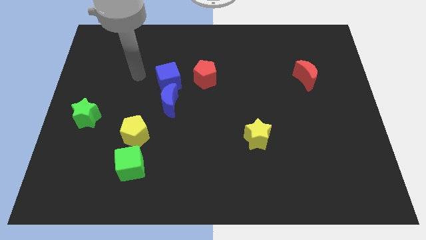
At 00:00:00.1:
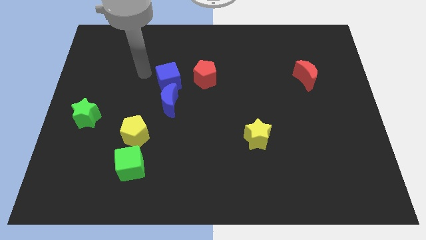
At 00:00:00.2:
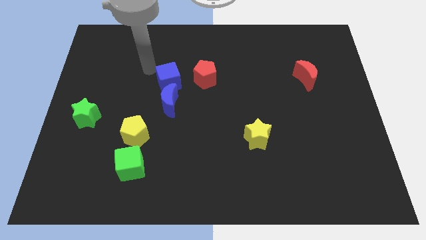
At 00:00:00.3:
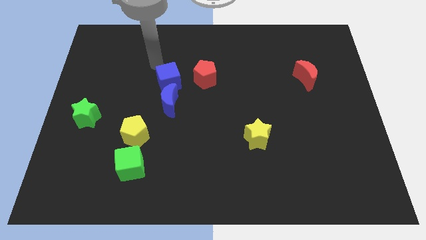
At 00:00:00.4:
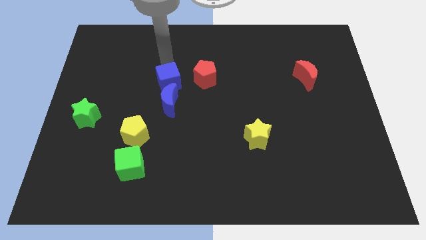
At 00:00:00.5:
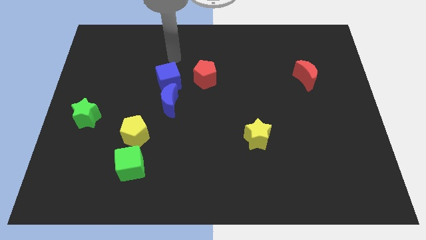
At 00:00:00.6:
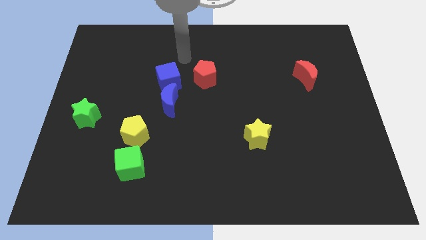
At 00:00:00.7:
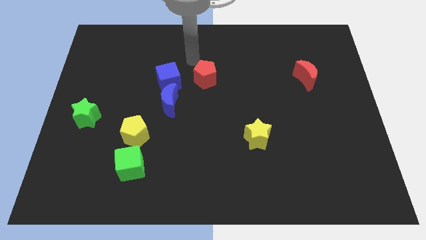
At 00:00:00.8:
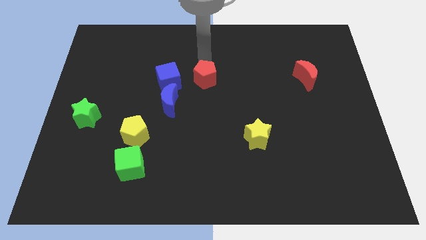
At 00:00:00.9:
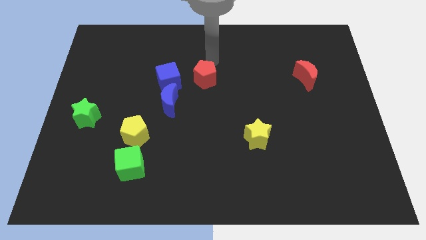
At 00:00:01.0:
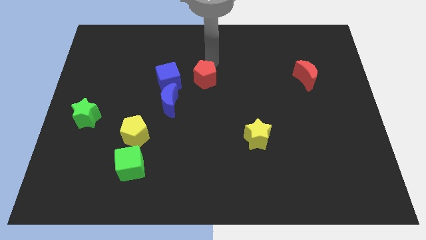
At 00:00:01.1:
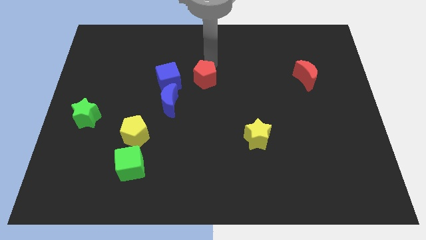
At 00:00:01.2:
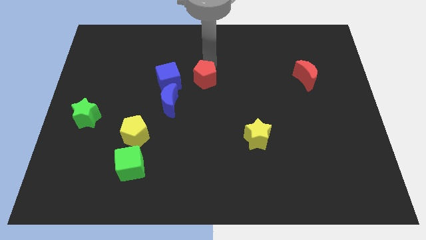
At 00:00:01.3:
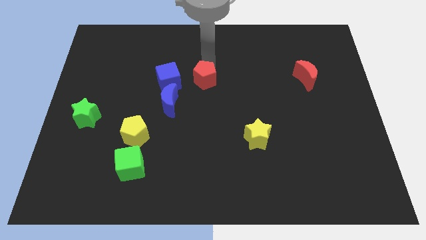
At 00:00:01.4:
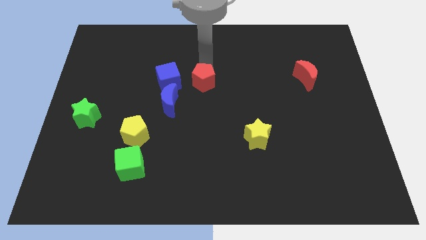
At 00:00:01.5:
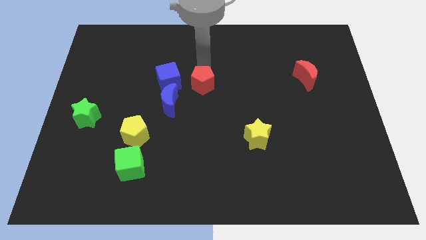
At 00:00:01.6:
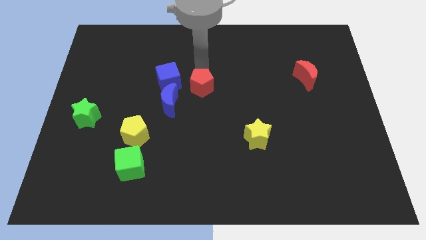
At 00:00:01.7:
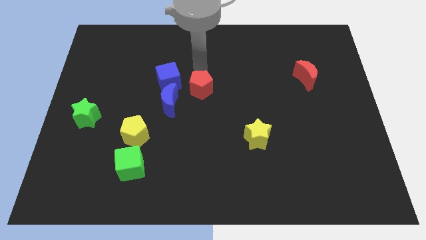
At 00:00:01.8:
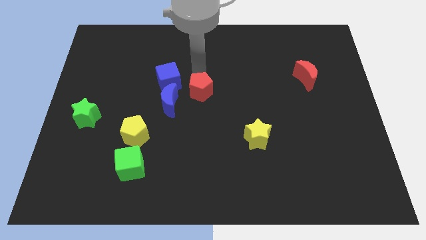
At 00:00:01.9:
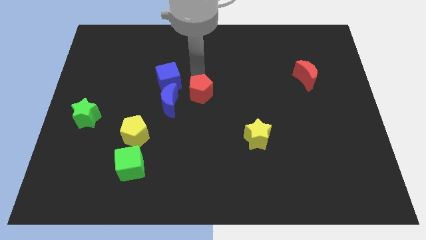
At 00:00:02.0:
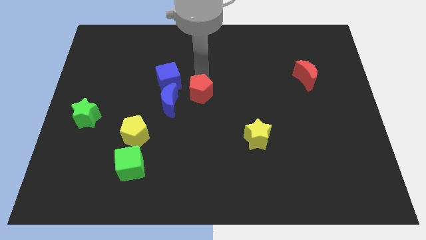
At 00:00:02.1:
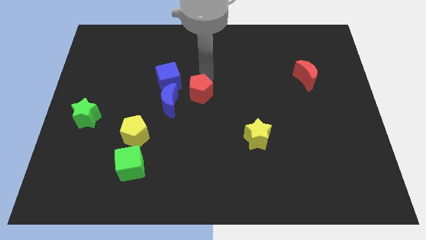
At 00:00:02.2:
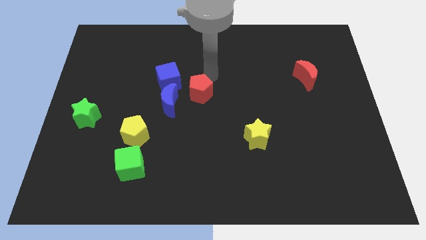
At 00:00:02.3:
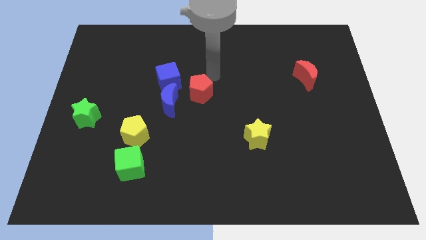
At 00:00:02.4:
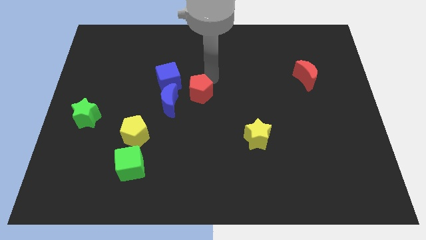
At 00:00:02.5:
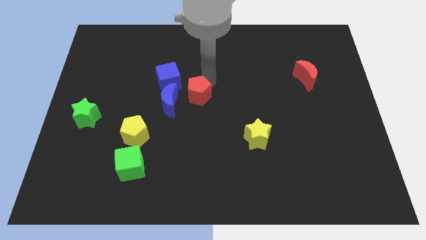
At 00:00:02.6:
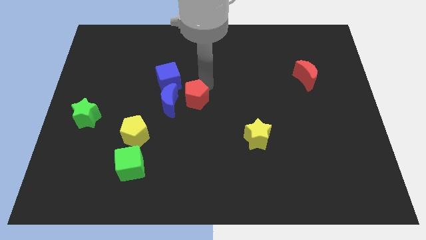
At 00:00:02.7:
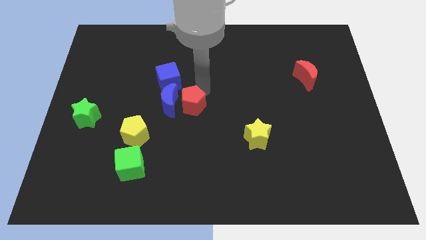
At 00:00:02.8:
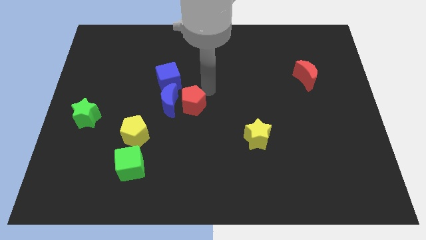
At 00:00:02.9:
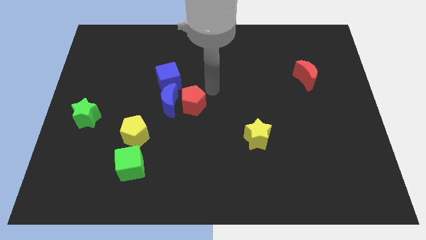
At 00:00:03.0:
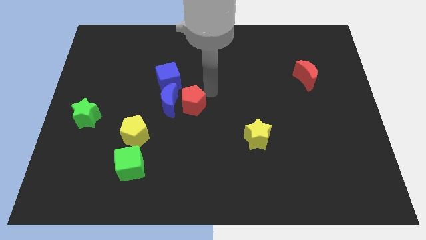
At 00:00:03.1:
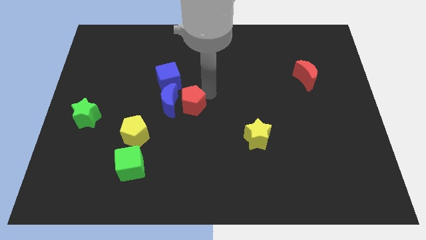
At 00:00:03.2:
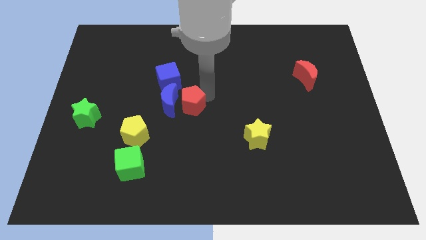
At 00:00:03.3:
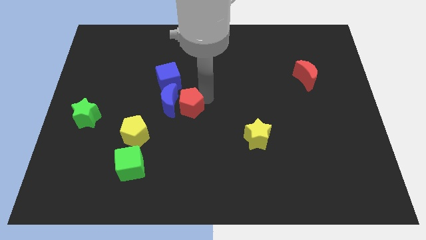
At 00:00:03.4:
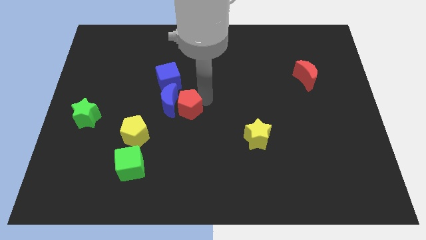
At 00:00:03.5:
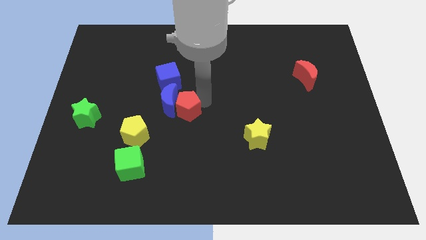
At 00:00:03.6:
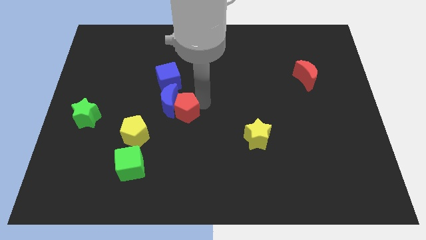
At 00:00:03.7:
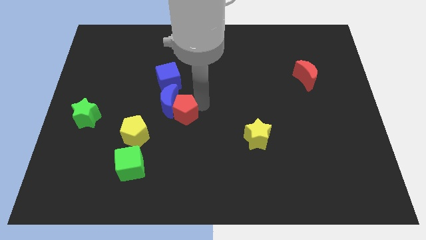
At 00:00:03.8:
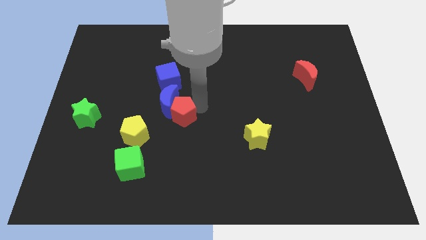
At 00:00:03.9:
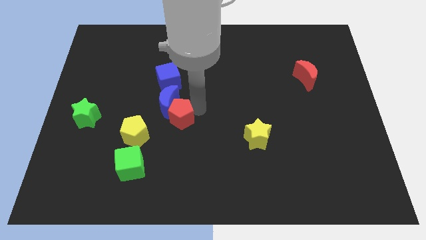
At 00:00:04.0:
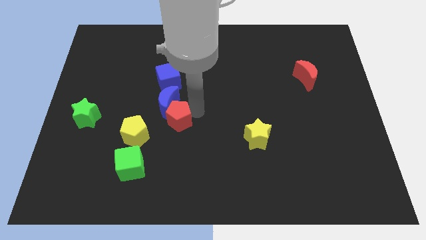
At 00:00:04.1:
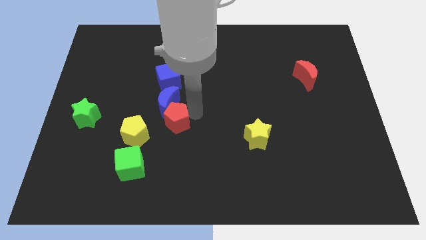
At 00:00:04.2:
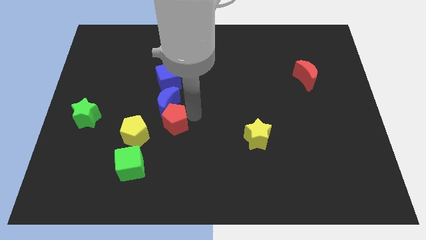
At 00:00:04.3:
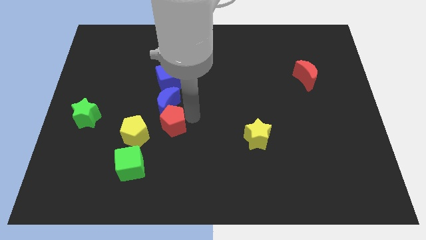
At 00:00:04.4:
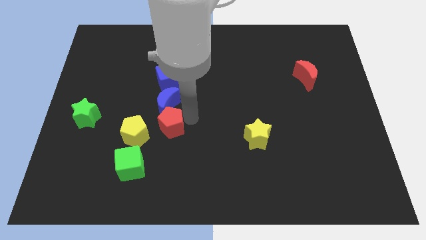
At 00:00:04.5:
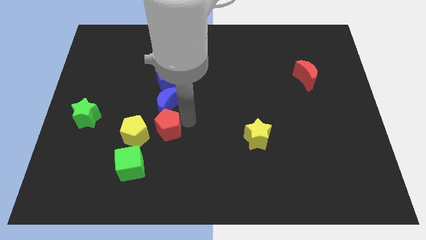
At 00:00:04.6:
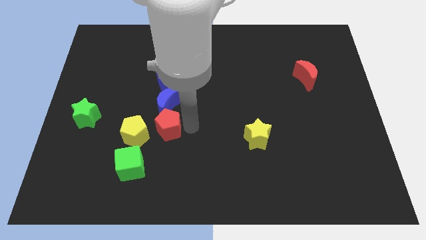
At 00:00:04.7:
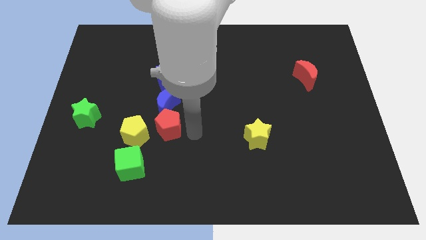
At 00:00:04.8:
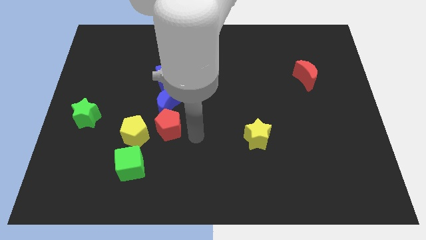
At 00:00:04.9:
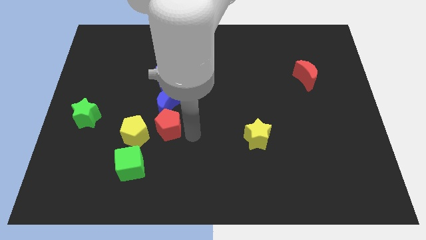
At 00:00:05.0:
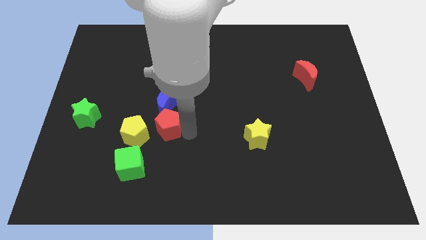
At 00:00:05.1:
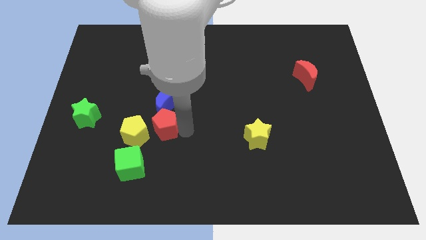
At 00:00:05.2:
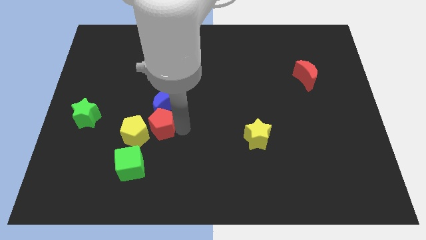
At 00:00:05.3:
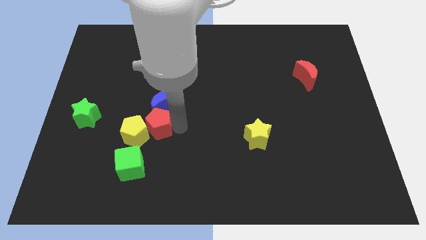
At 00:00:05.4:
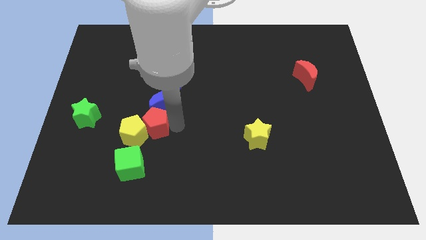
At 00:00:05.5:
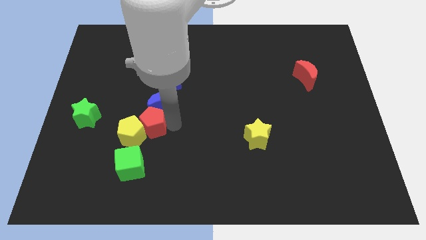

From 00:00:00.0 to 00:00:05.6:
slide the red pentagon just right of the green star

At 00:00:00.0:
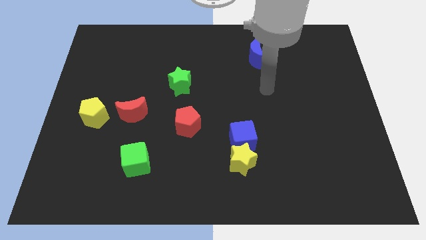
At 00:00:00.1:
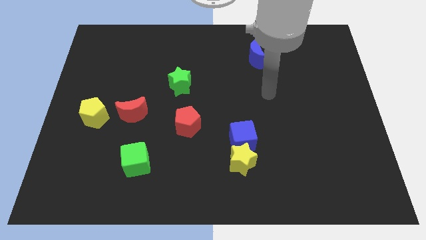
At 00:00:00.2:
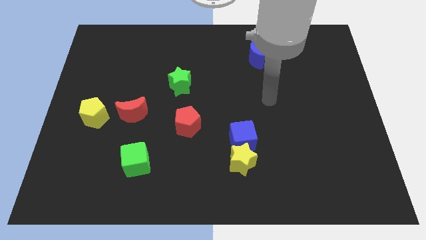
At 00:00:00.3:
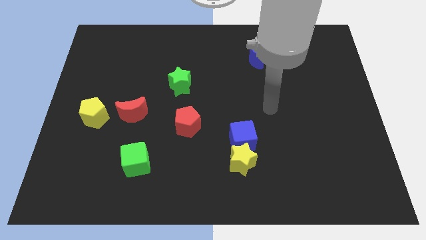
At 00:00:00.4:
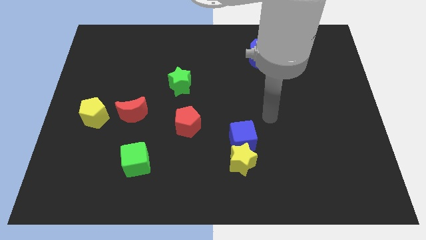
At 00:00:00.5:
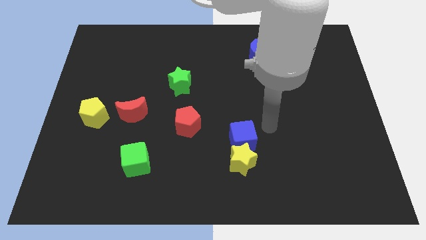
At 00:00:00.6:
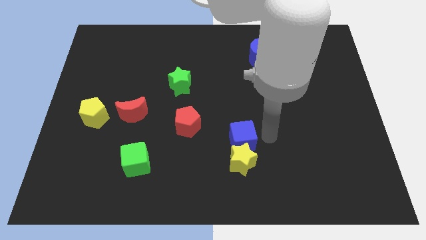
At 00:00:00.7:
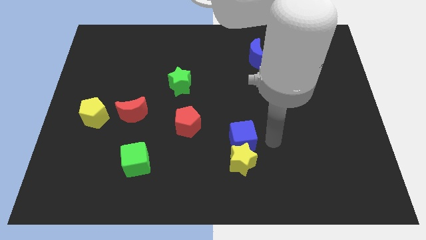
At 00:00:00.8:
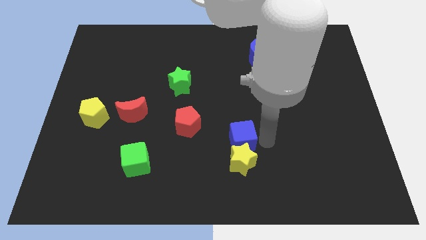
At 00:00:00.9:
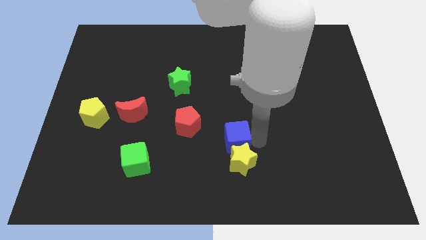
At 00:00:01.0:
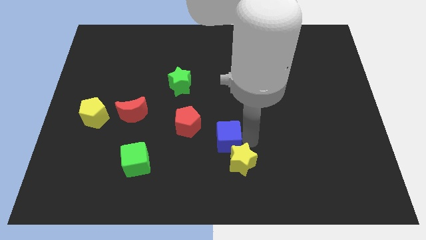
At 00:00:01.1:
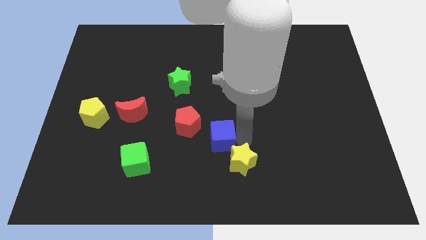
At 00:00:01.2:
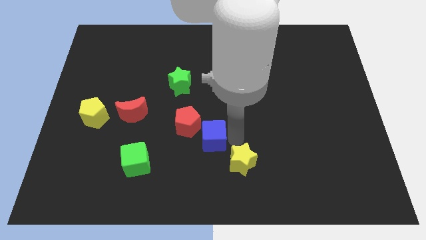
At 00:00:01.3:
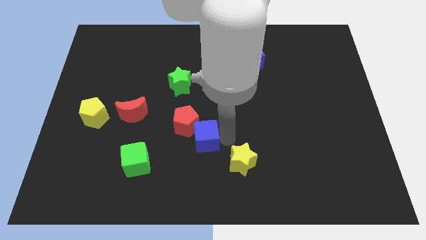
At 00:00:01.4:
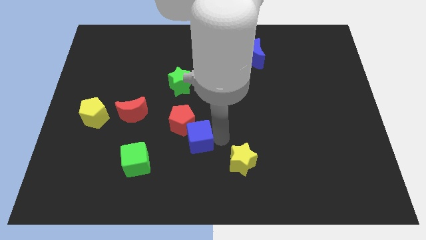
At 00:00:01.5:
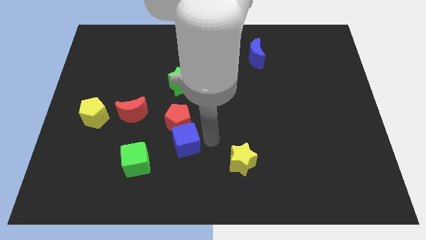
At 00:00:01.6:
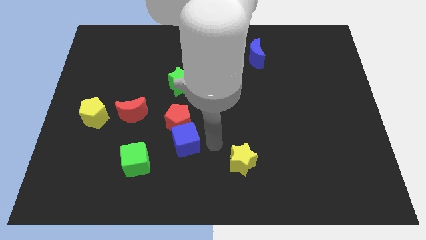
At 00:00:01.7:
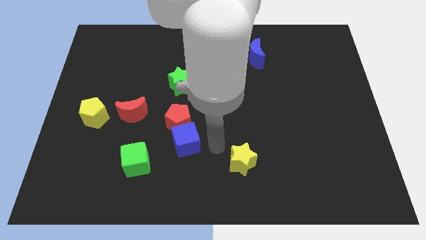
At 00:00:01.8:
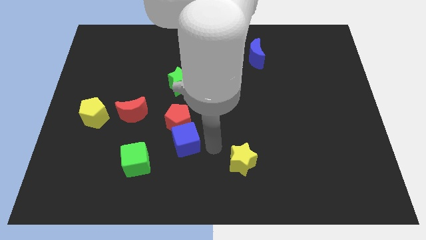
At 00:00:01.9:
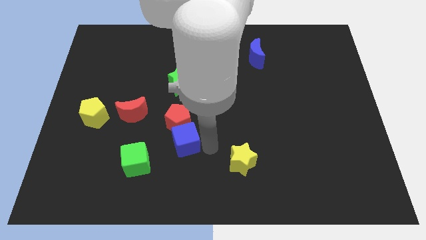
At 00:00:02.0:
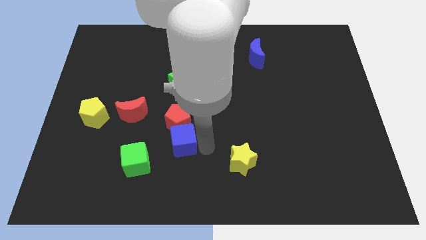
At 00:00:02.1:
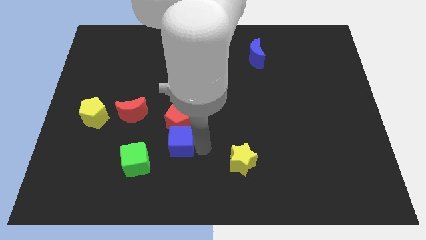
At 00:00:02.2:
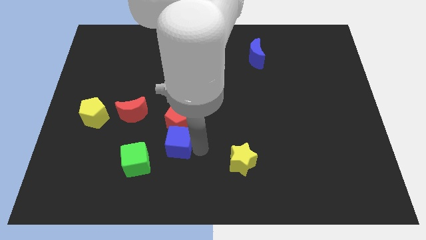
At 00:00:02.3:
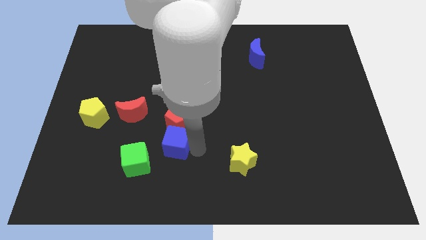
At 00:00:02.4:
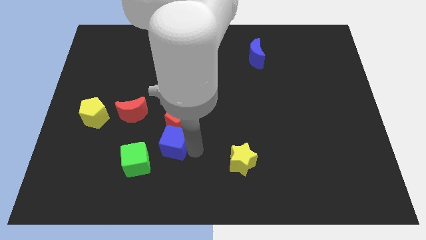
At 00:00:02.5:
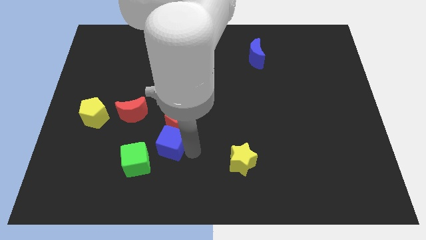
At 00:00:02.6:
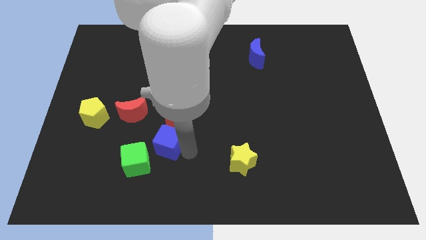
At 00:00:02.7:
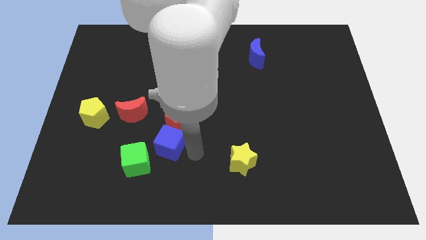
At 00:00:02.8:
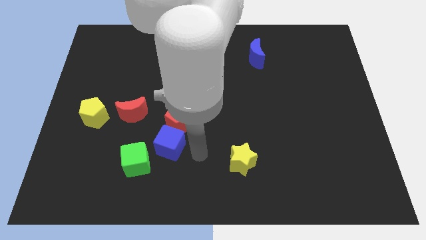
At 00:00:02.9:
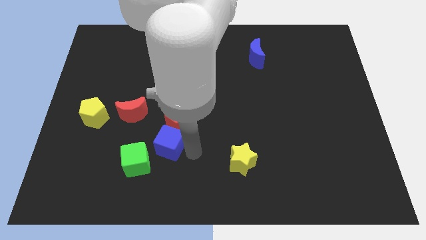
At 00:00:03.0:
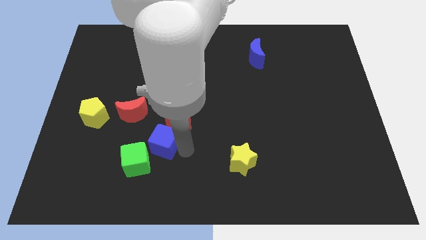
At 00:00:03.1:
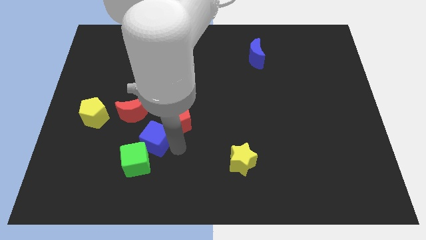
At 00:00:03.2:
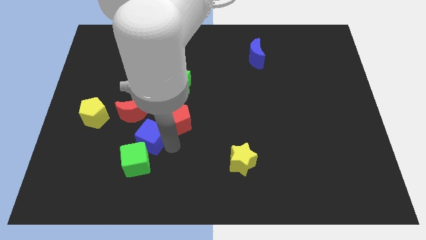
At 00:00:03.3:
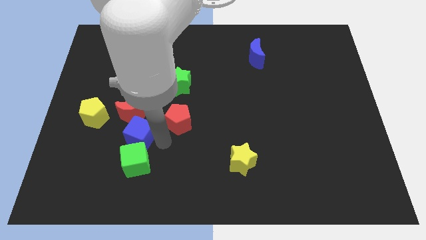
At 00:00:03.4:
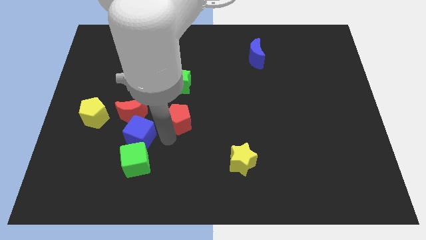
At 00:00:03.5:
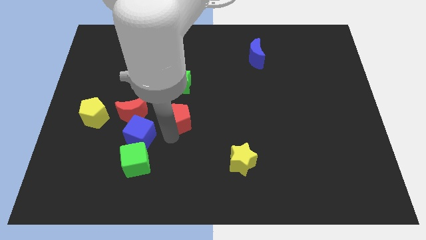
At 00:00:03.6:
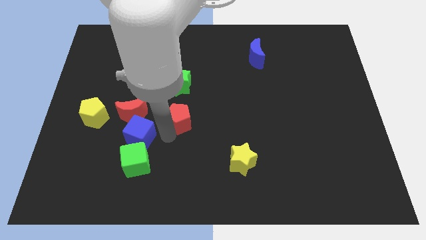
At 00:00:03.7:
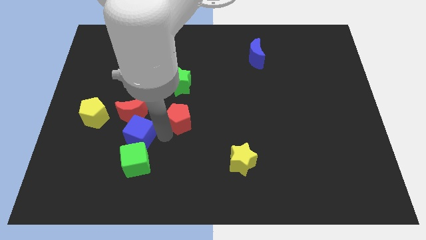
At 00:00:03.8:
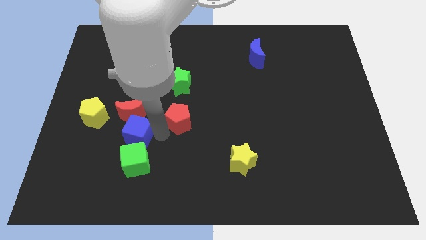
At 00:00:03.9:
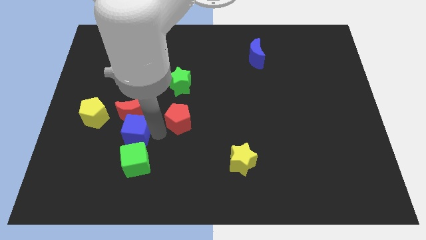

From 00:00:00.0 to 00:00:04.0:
push the blue cube to the bottom right of the yellow pentagon
